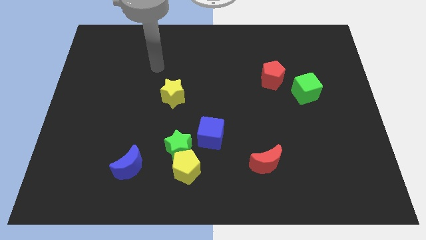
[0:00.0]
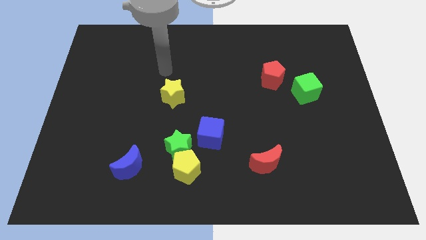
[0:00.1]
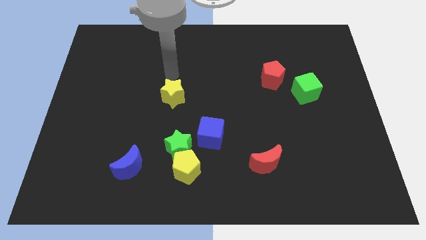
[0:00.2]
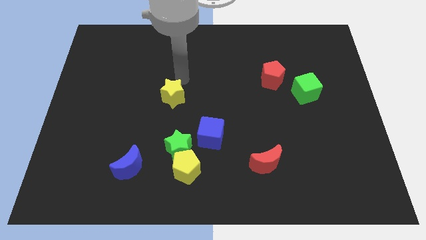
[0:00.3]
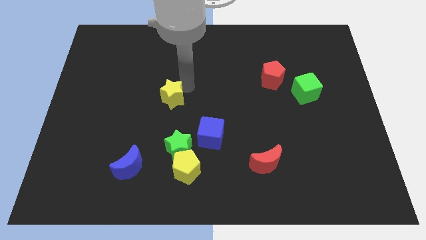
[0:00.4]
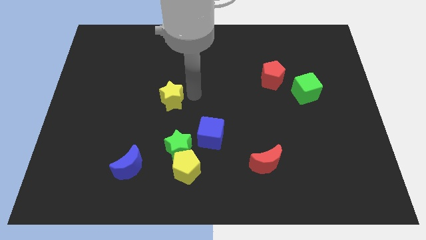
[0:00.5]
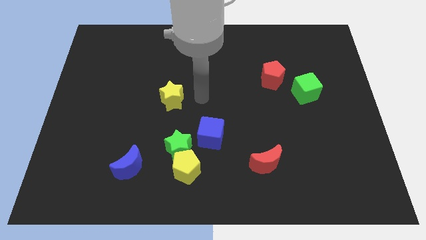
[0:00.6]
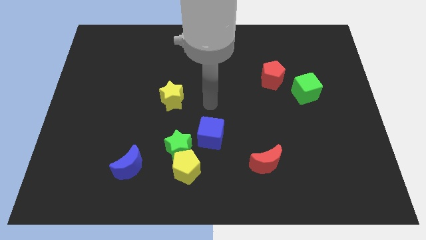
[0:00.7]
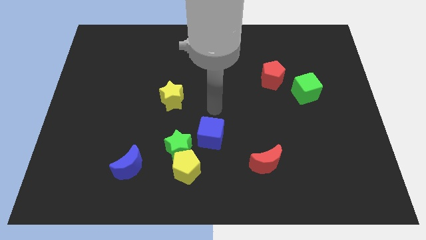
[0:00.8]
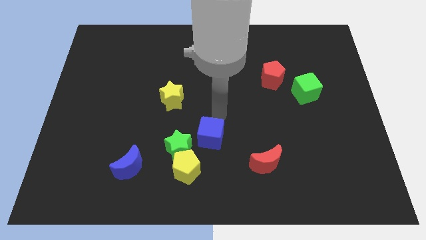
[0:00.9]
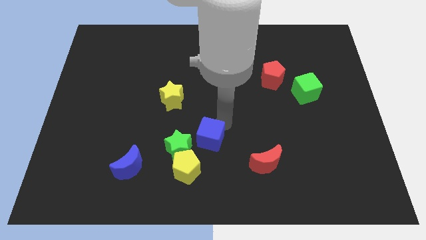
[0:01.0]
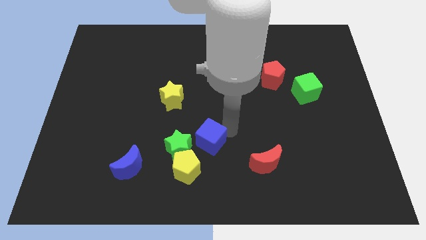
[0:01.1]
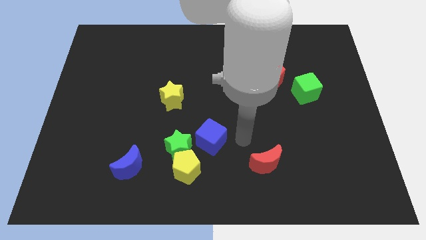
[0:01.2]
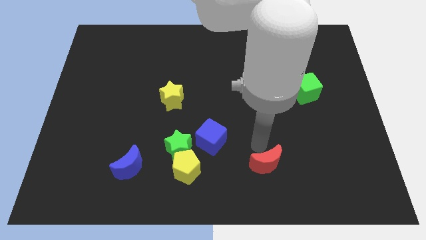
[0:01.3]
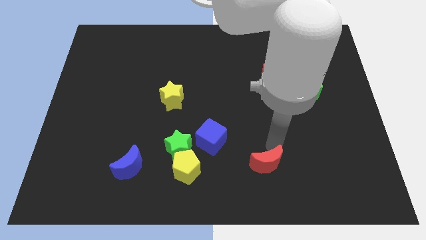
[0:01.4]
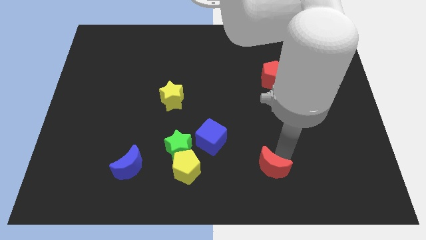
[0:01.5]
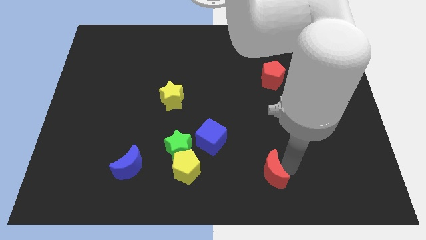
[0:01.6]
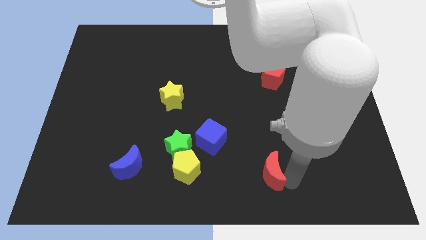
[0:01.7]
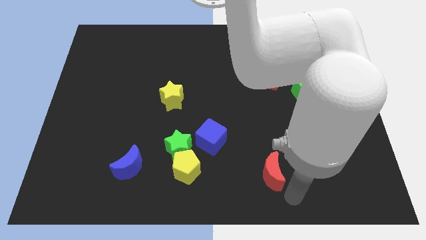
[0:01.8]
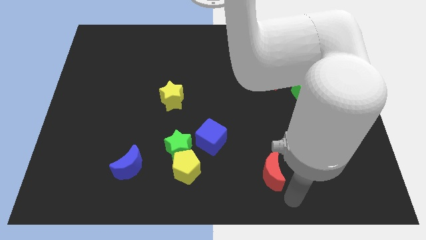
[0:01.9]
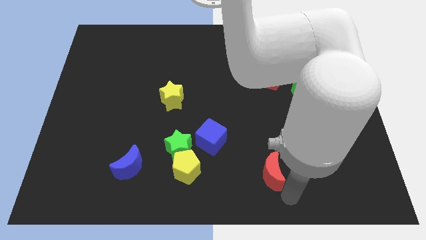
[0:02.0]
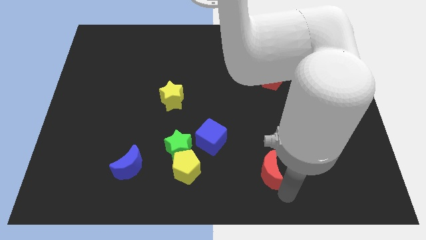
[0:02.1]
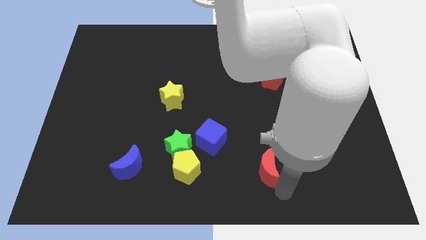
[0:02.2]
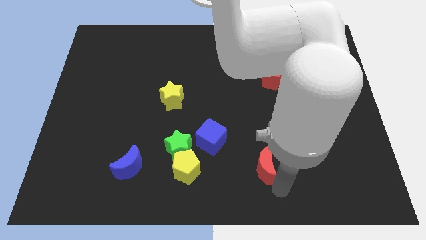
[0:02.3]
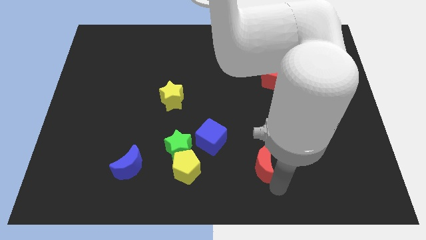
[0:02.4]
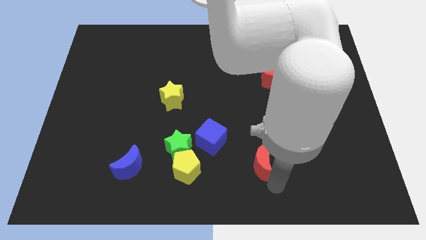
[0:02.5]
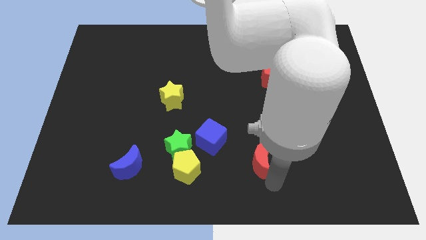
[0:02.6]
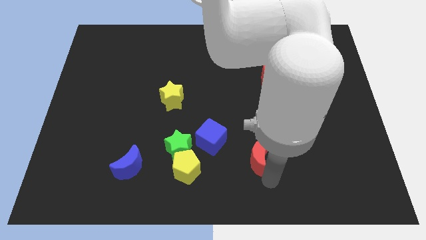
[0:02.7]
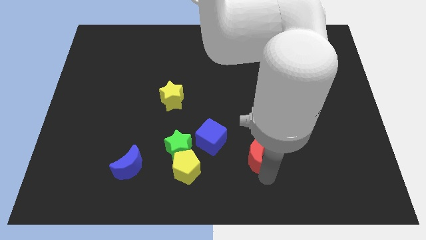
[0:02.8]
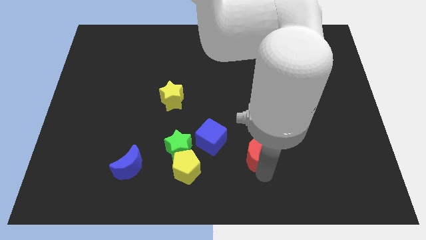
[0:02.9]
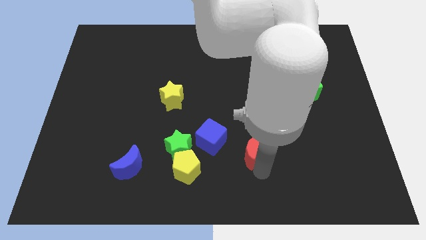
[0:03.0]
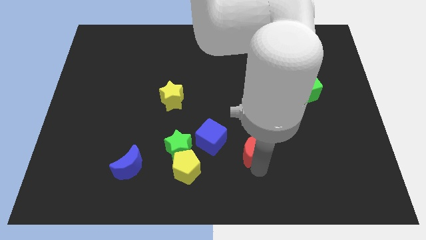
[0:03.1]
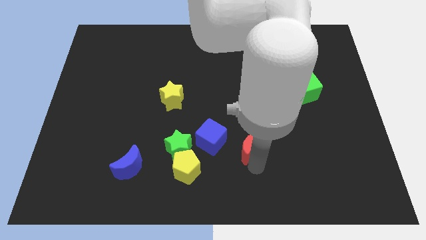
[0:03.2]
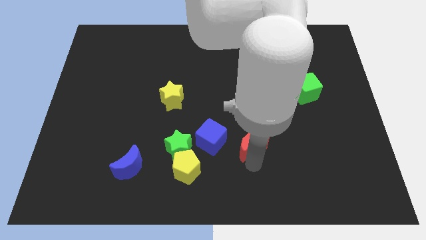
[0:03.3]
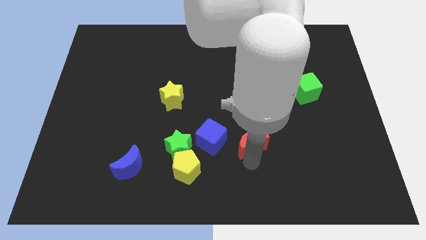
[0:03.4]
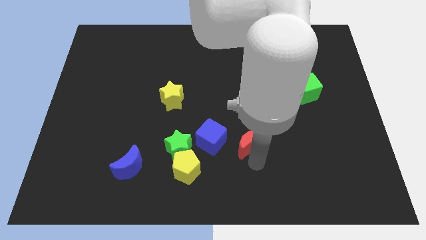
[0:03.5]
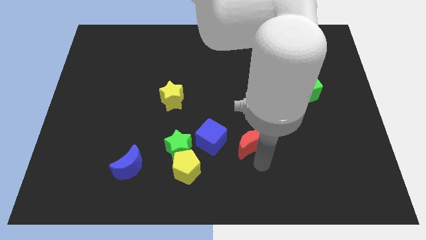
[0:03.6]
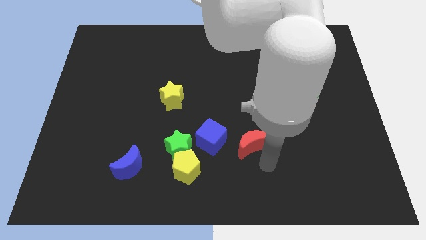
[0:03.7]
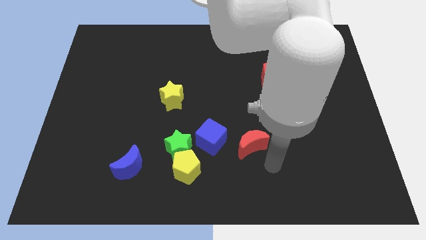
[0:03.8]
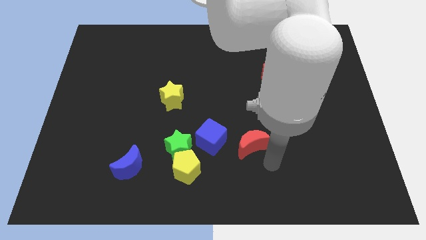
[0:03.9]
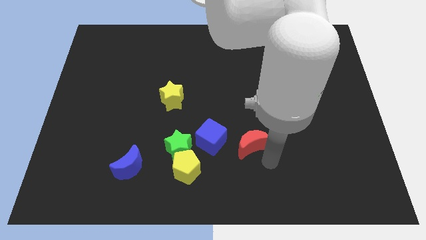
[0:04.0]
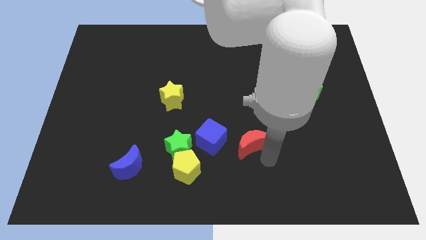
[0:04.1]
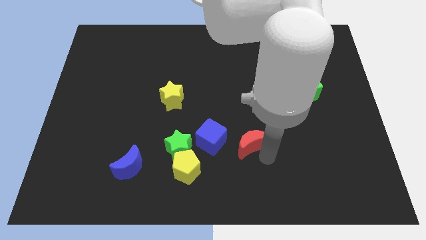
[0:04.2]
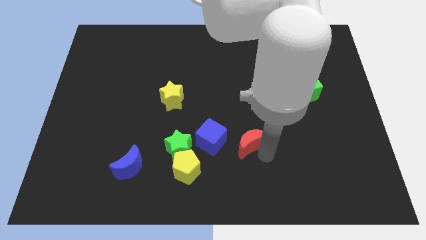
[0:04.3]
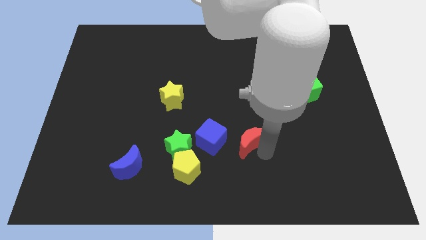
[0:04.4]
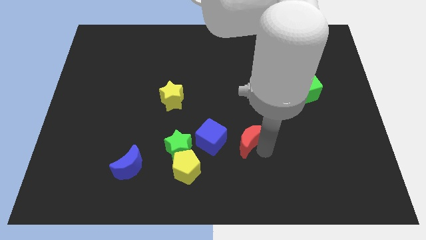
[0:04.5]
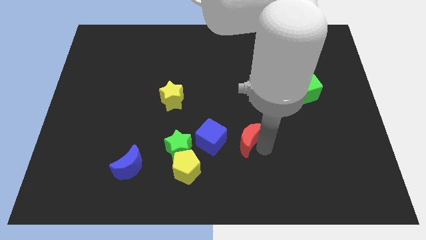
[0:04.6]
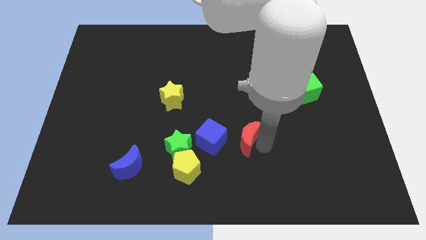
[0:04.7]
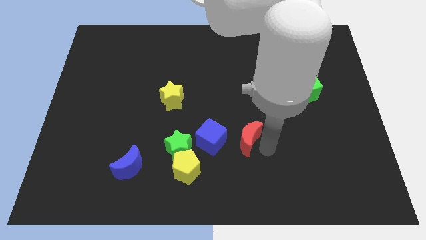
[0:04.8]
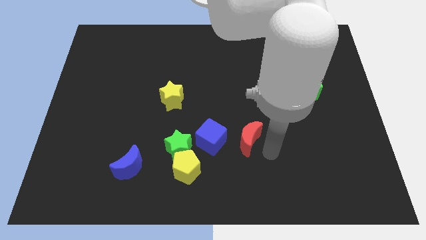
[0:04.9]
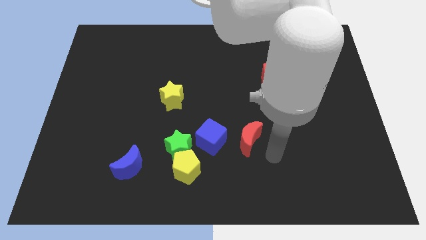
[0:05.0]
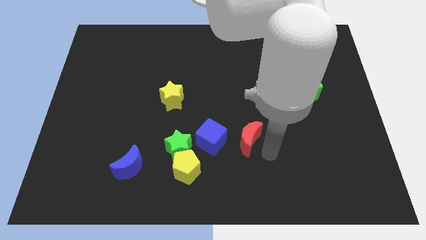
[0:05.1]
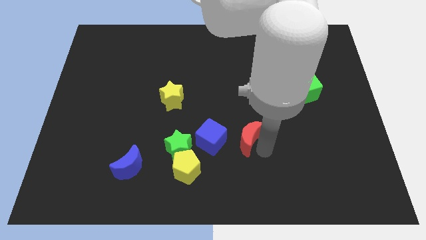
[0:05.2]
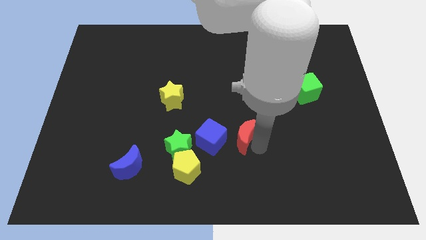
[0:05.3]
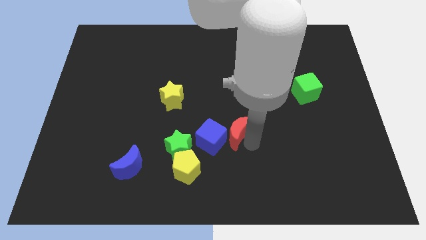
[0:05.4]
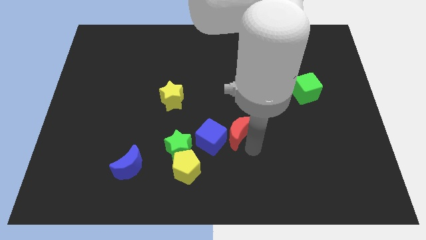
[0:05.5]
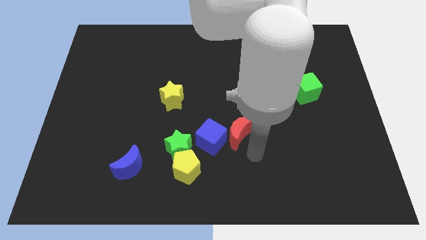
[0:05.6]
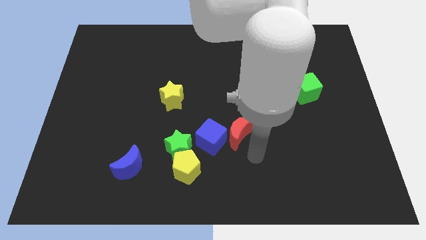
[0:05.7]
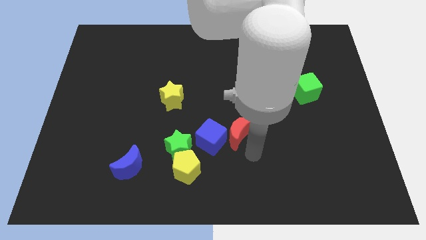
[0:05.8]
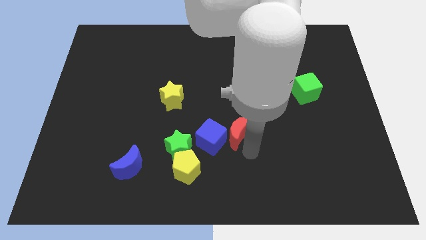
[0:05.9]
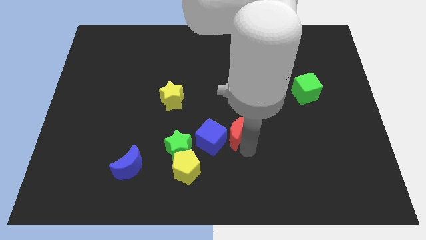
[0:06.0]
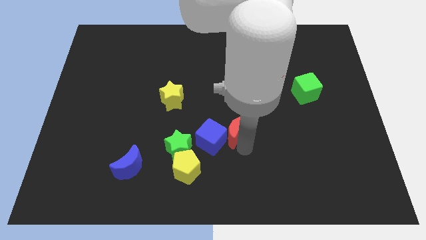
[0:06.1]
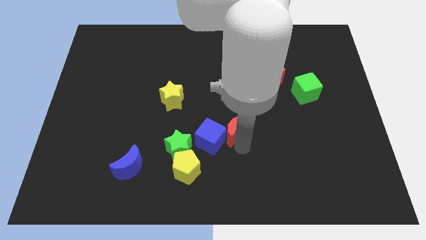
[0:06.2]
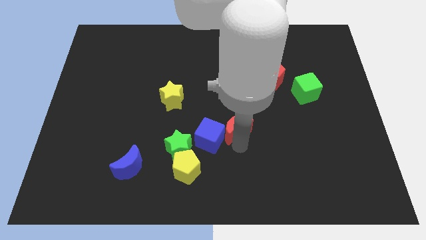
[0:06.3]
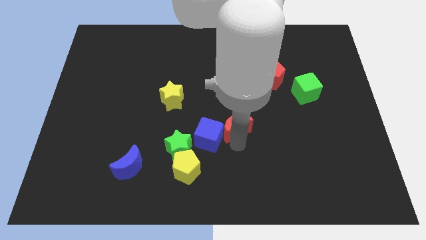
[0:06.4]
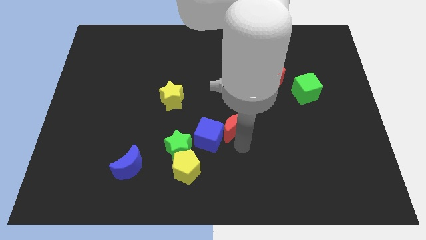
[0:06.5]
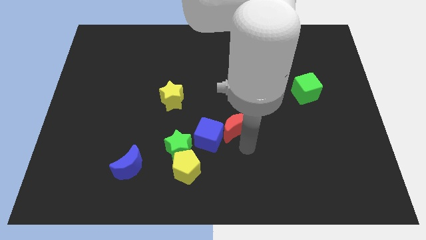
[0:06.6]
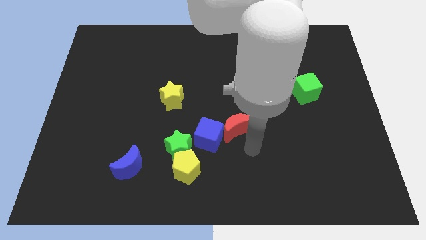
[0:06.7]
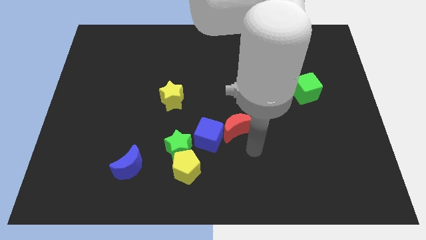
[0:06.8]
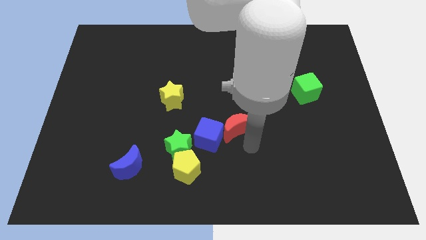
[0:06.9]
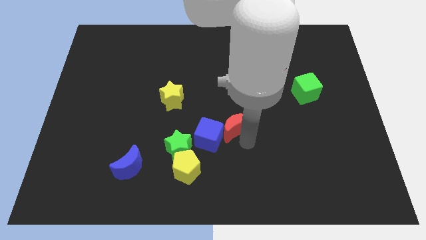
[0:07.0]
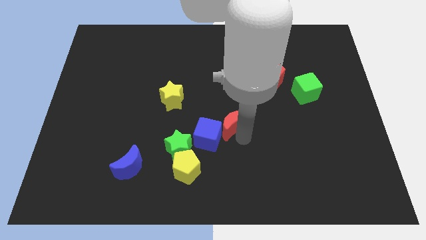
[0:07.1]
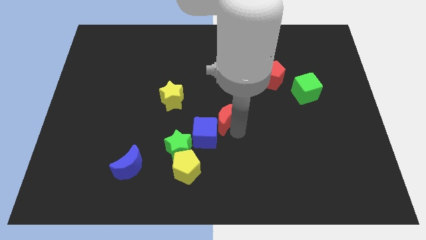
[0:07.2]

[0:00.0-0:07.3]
slide the red moon above the blue cube

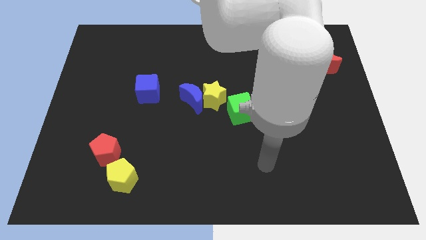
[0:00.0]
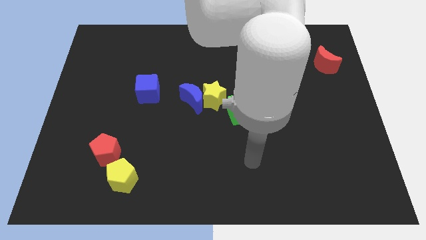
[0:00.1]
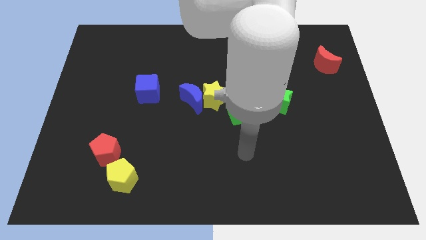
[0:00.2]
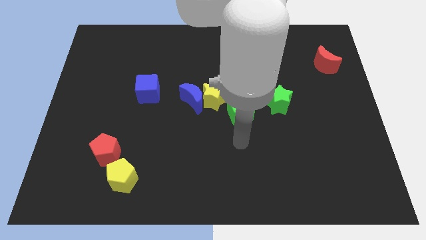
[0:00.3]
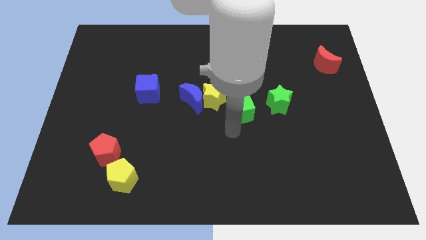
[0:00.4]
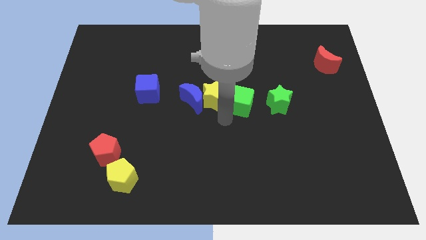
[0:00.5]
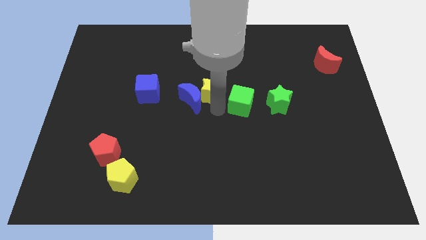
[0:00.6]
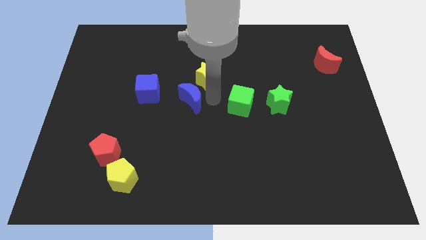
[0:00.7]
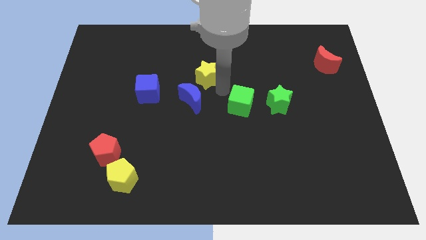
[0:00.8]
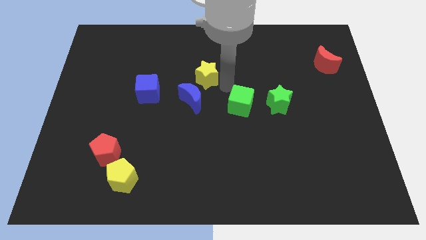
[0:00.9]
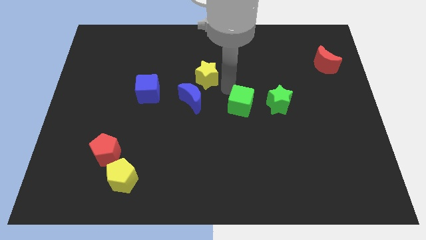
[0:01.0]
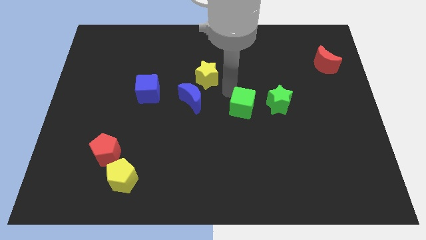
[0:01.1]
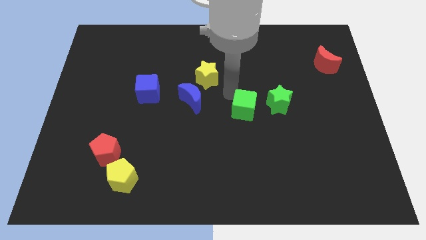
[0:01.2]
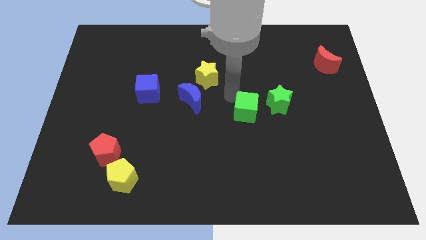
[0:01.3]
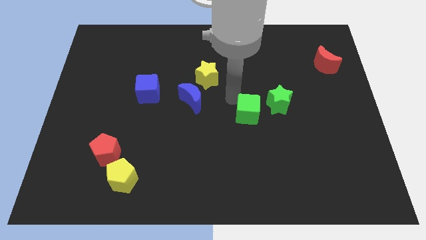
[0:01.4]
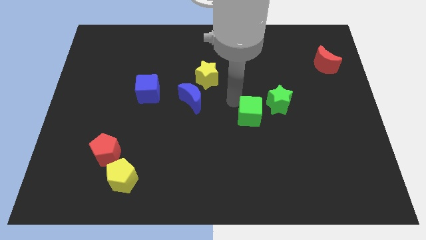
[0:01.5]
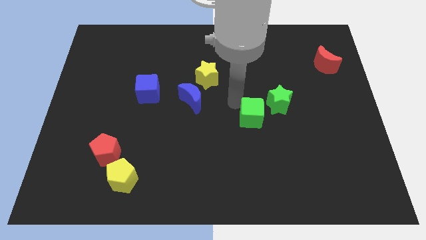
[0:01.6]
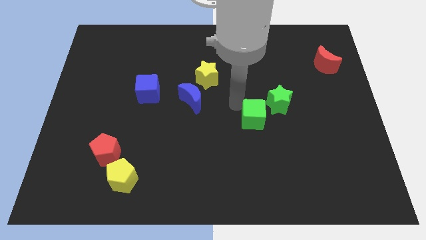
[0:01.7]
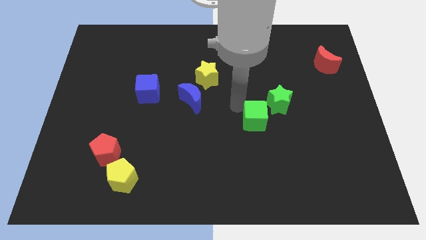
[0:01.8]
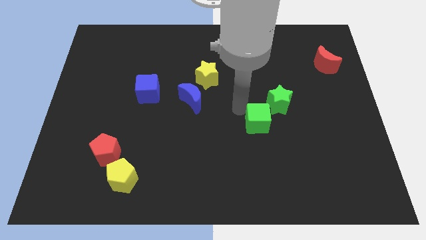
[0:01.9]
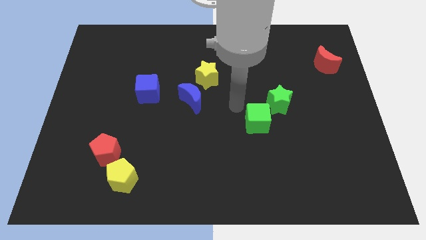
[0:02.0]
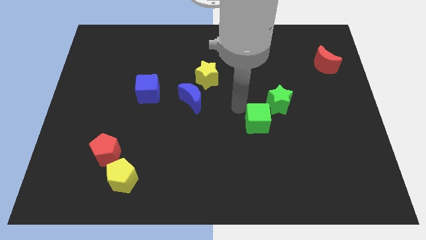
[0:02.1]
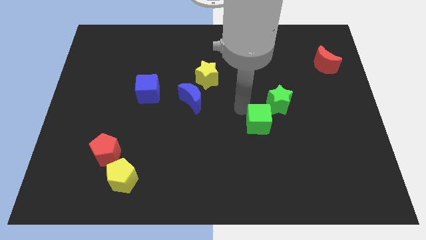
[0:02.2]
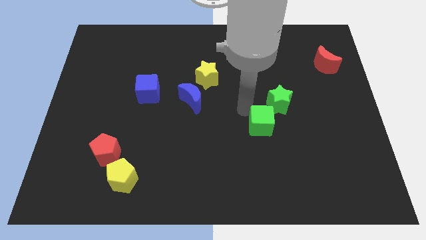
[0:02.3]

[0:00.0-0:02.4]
put the green cube below the green star
